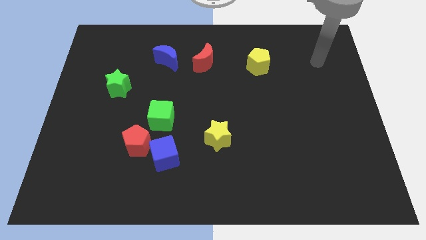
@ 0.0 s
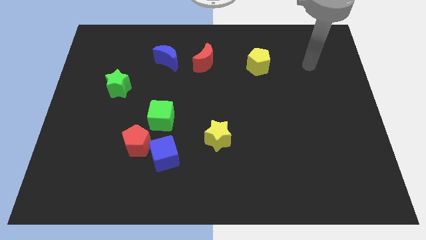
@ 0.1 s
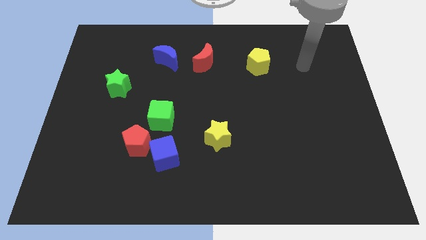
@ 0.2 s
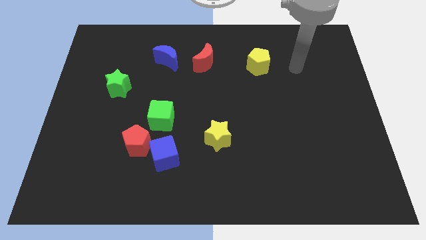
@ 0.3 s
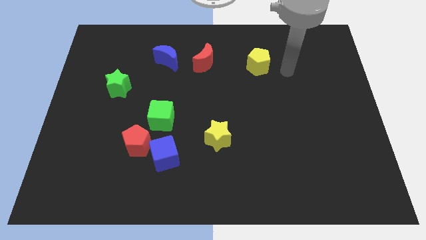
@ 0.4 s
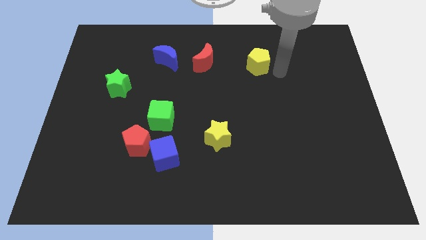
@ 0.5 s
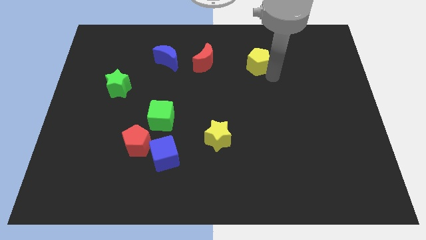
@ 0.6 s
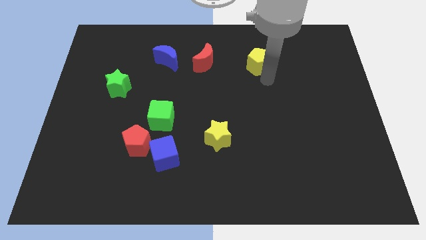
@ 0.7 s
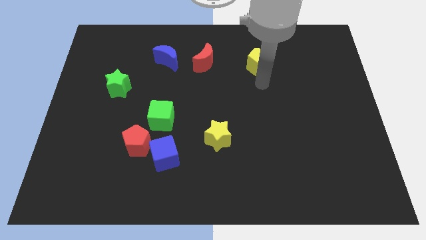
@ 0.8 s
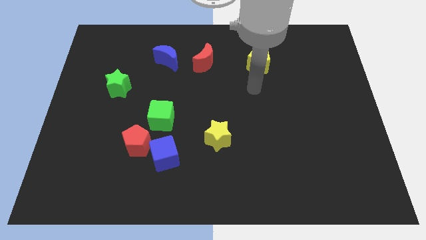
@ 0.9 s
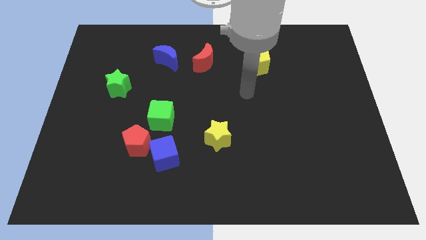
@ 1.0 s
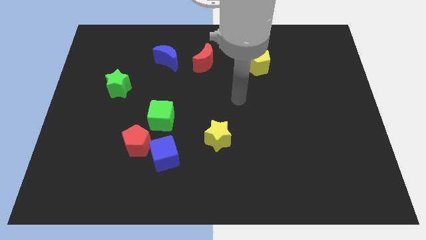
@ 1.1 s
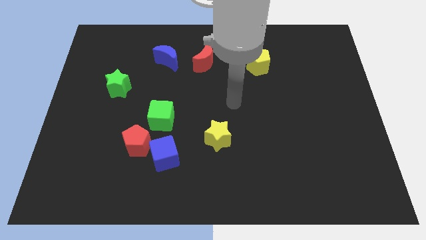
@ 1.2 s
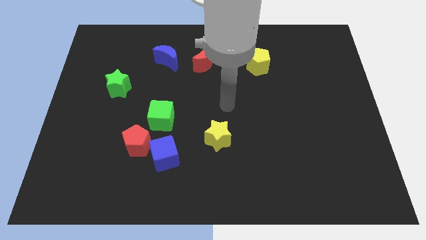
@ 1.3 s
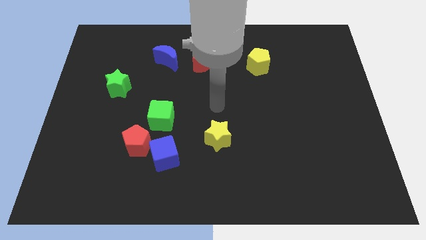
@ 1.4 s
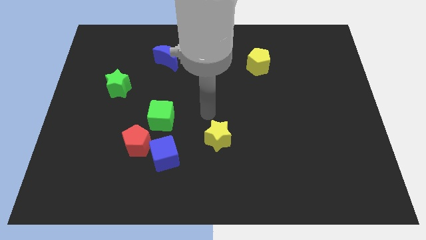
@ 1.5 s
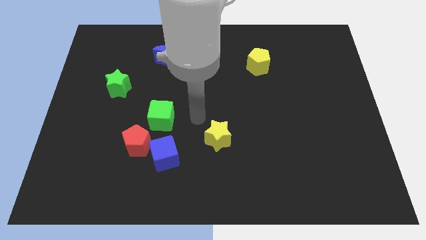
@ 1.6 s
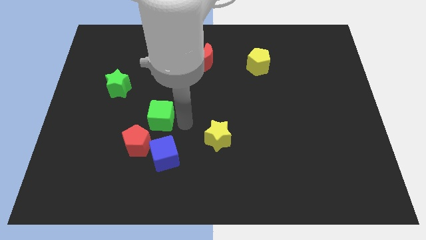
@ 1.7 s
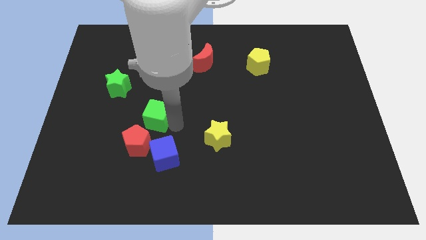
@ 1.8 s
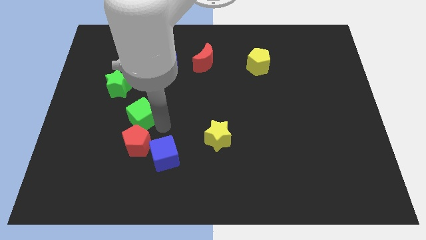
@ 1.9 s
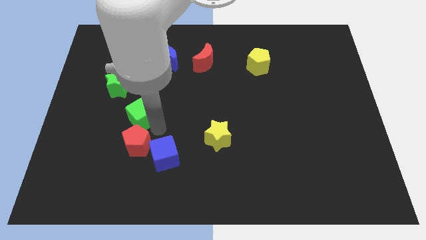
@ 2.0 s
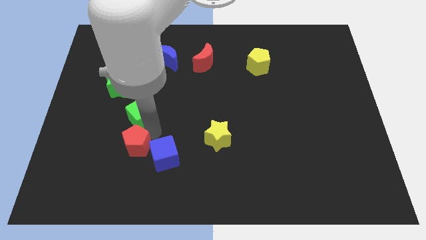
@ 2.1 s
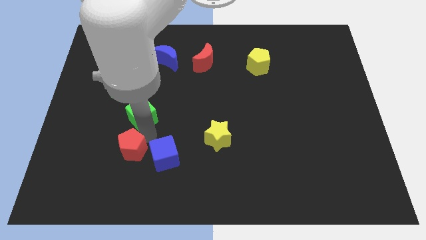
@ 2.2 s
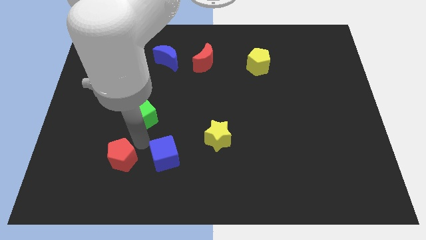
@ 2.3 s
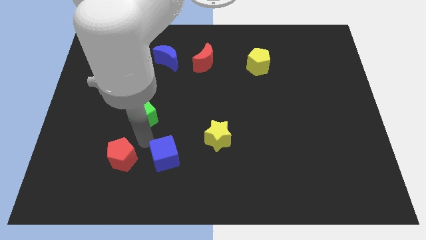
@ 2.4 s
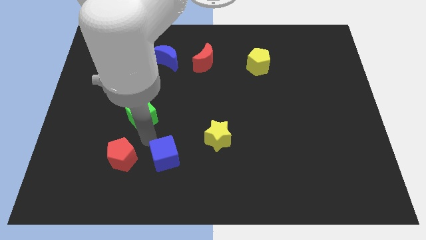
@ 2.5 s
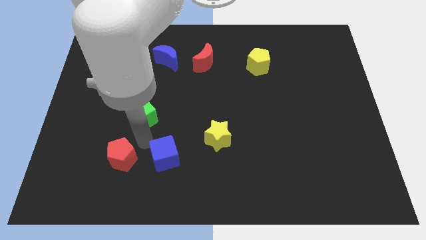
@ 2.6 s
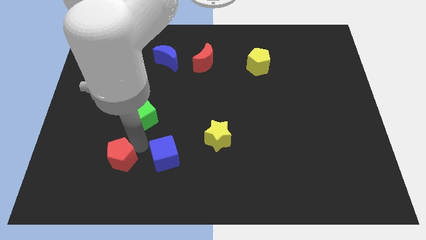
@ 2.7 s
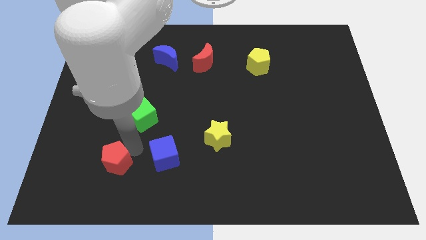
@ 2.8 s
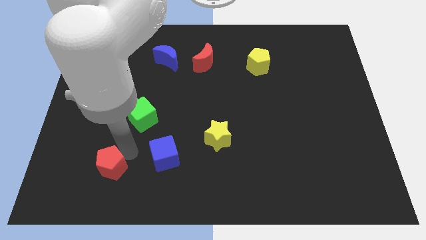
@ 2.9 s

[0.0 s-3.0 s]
separate the red pentagon from the blue cube and green cube

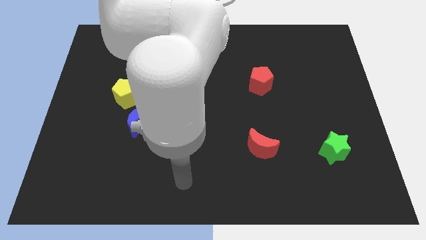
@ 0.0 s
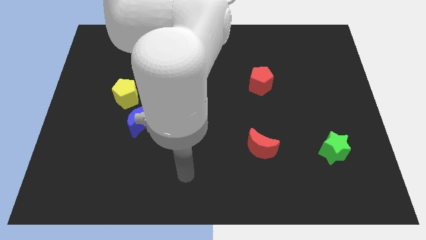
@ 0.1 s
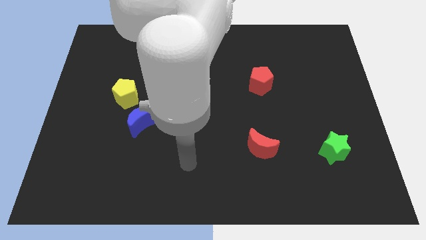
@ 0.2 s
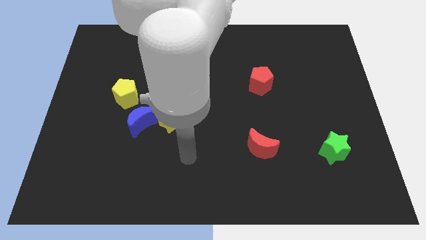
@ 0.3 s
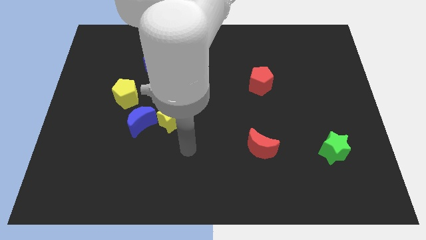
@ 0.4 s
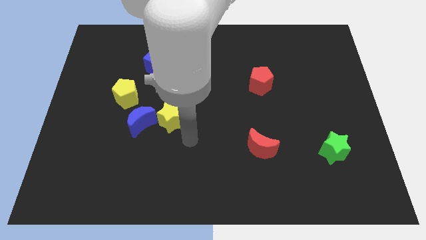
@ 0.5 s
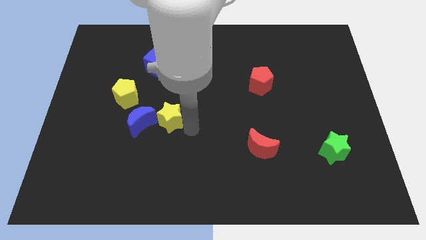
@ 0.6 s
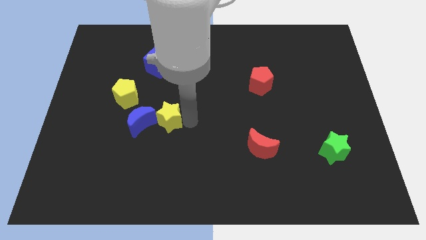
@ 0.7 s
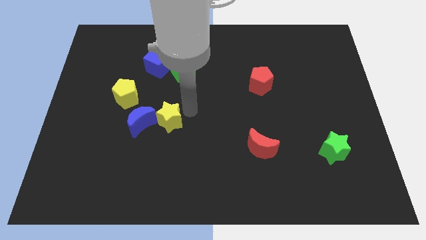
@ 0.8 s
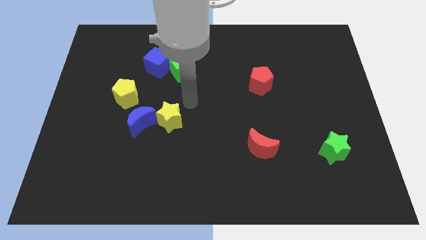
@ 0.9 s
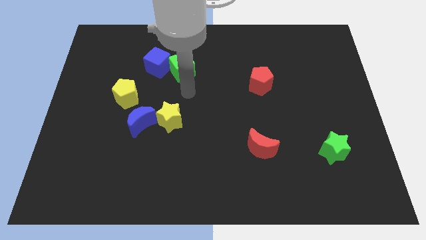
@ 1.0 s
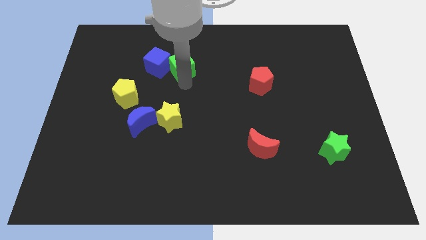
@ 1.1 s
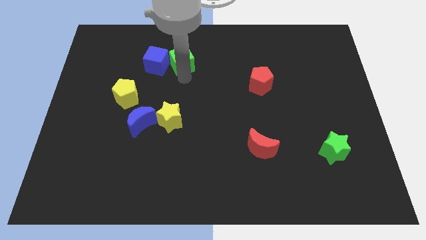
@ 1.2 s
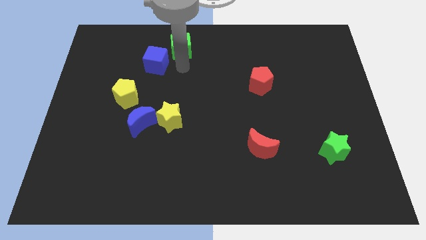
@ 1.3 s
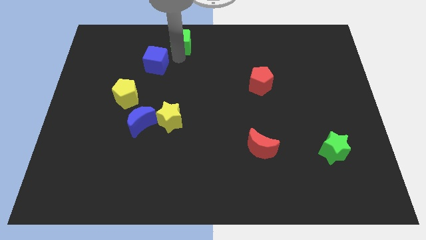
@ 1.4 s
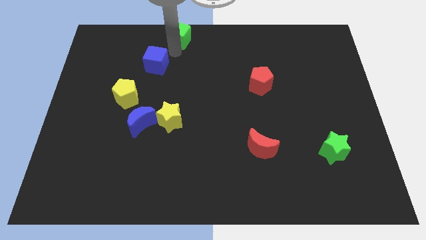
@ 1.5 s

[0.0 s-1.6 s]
separate the blue cube from the green cube

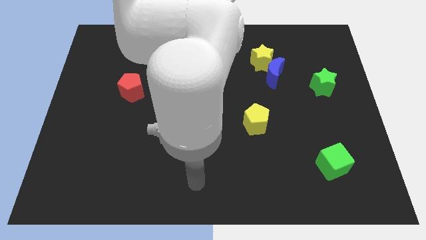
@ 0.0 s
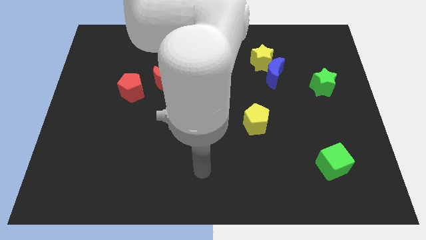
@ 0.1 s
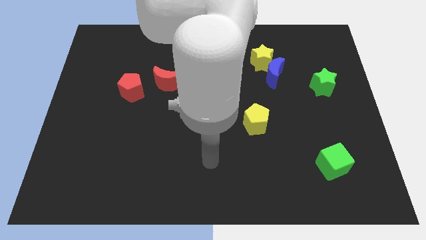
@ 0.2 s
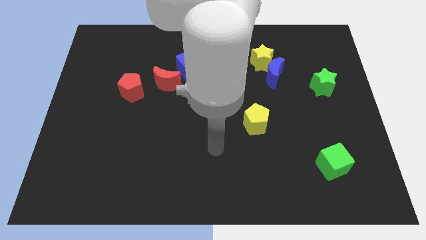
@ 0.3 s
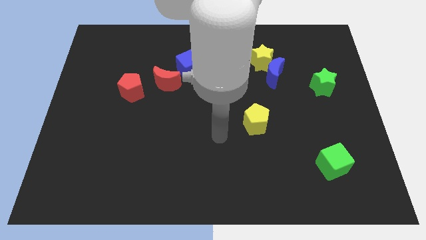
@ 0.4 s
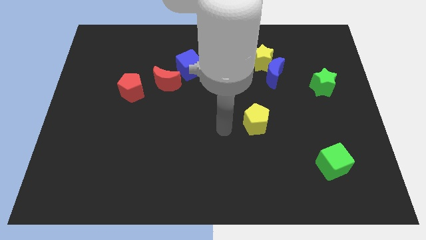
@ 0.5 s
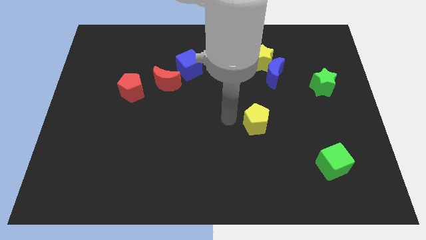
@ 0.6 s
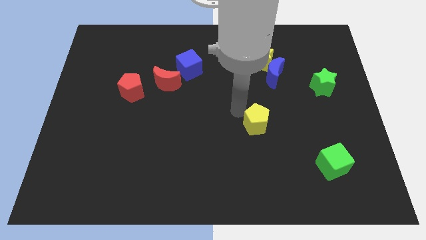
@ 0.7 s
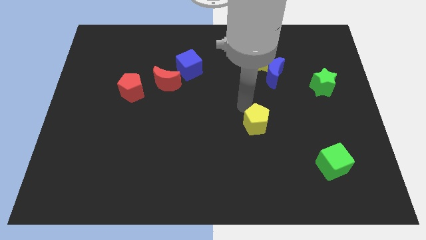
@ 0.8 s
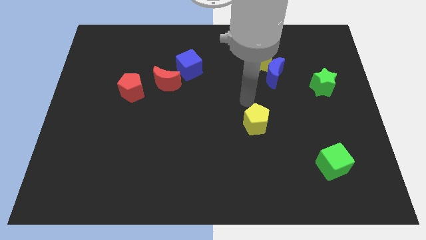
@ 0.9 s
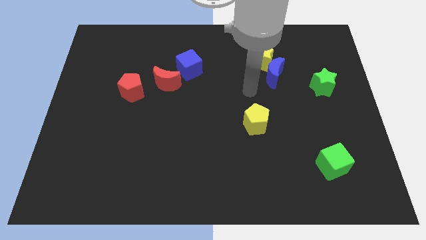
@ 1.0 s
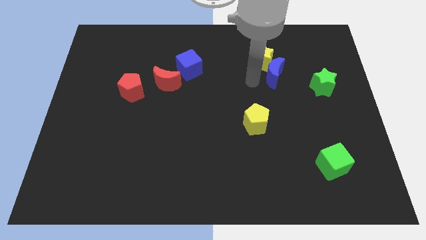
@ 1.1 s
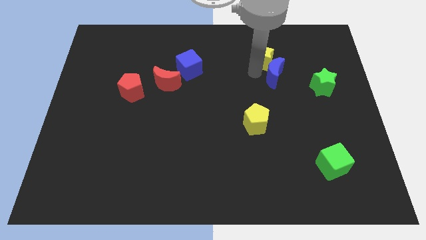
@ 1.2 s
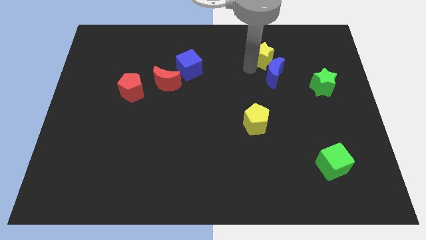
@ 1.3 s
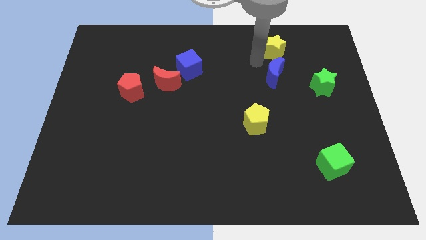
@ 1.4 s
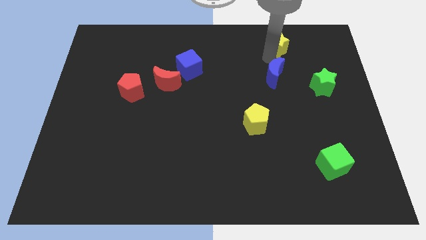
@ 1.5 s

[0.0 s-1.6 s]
pull the blue moon apart from the yellow star

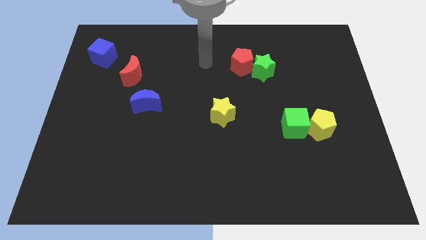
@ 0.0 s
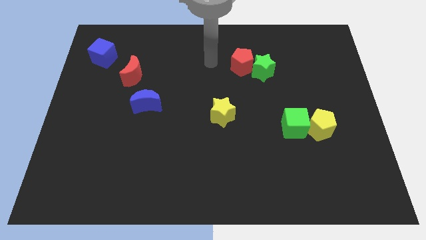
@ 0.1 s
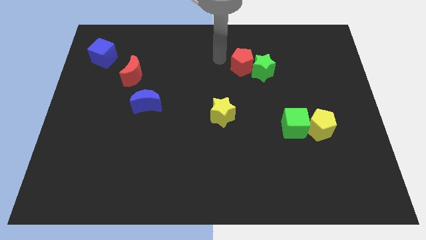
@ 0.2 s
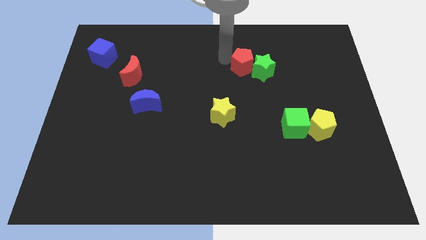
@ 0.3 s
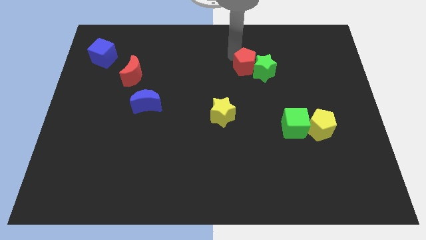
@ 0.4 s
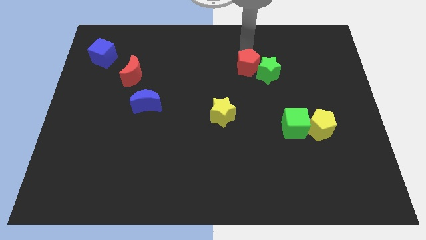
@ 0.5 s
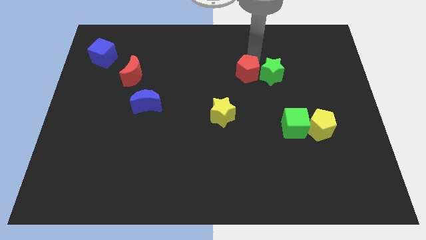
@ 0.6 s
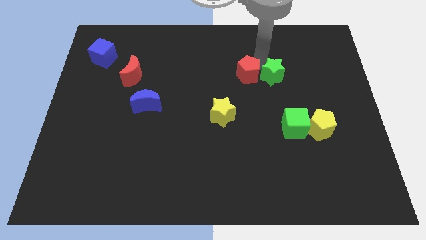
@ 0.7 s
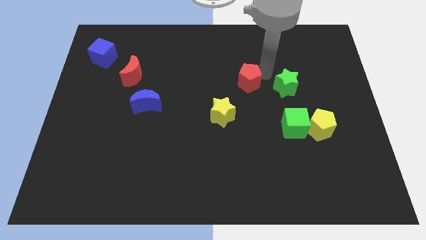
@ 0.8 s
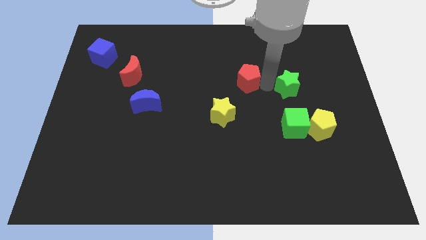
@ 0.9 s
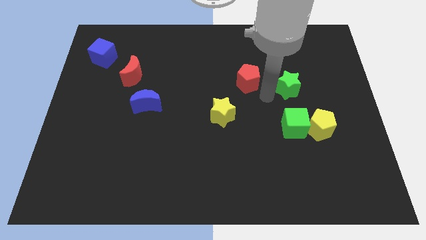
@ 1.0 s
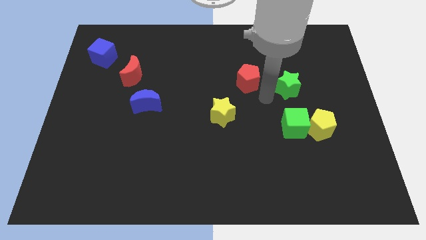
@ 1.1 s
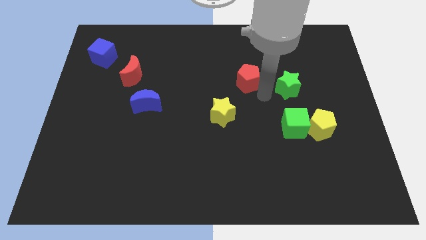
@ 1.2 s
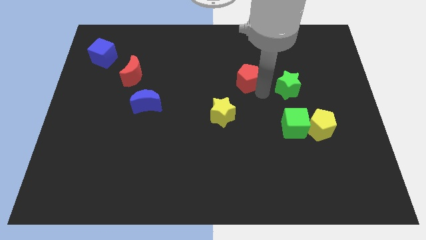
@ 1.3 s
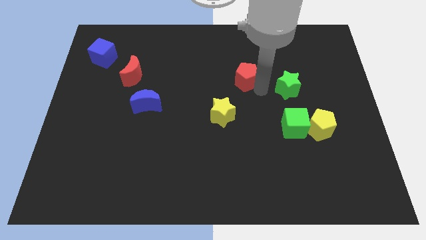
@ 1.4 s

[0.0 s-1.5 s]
separate the red pentagon from the green star

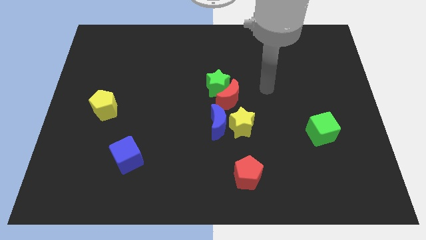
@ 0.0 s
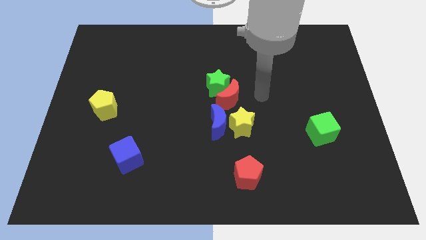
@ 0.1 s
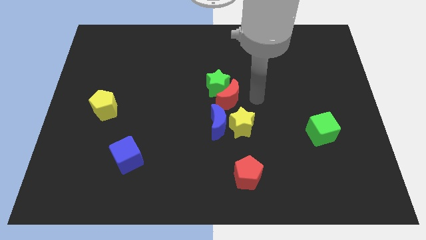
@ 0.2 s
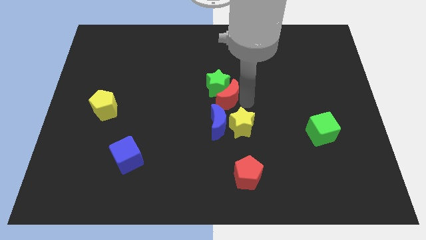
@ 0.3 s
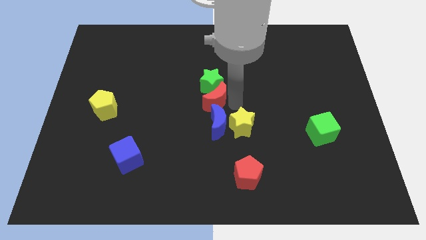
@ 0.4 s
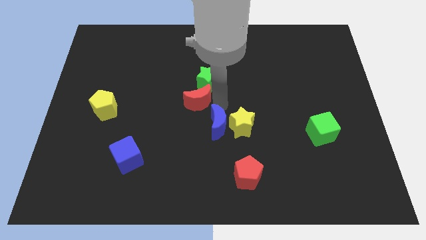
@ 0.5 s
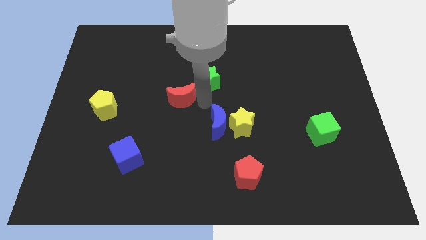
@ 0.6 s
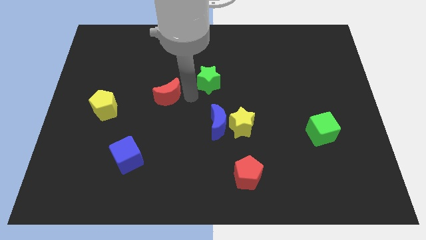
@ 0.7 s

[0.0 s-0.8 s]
pull the green star apart from the red moon

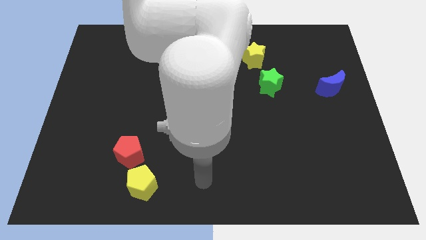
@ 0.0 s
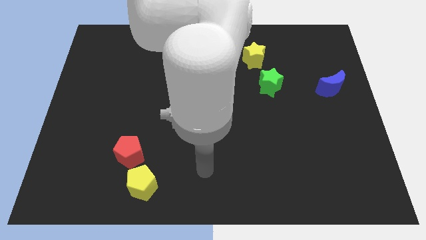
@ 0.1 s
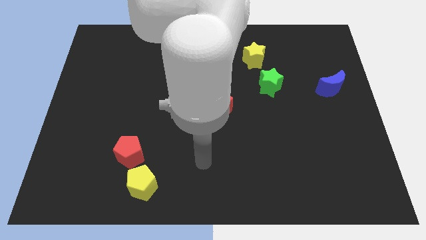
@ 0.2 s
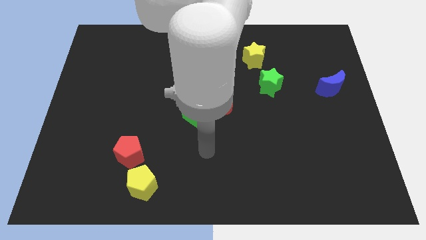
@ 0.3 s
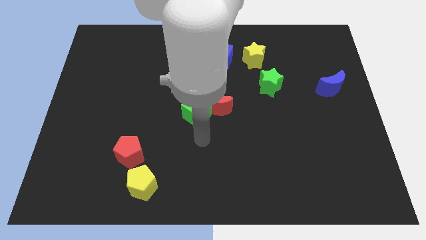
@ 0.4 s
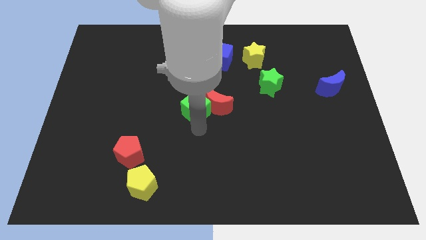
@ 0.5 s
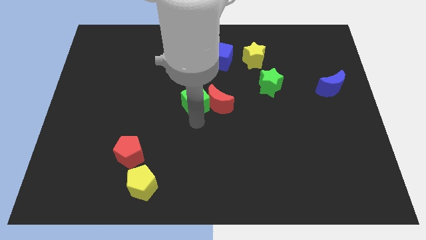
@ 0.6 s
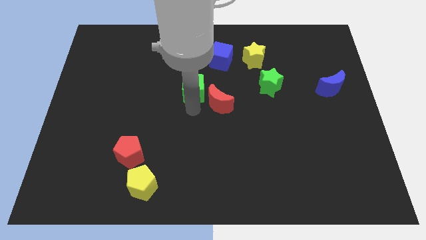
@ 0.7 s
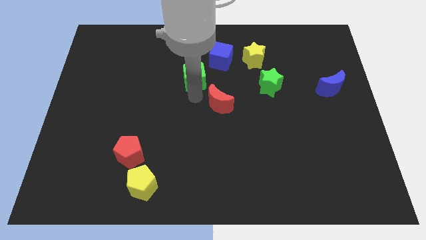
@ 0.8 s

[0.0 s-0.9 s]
move the red moon away from the green cube
